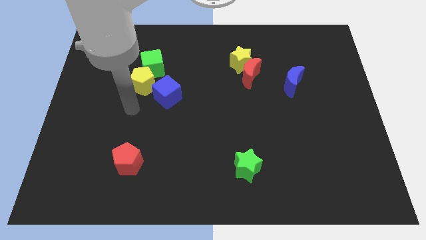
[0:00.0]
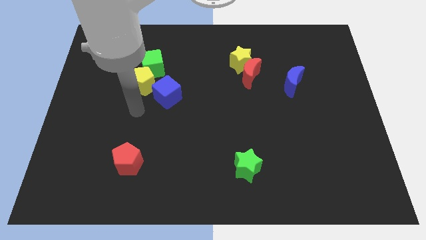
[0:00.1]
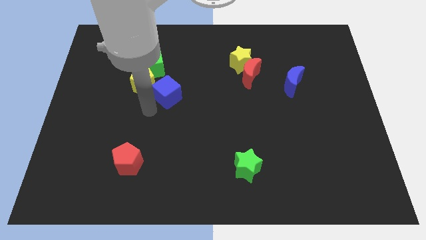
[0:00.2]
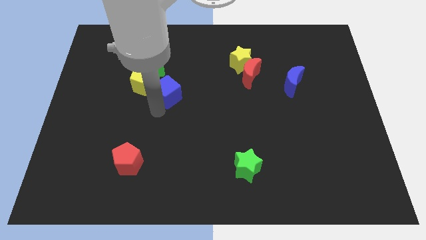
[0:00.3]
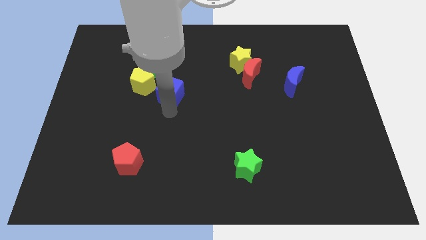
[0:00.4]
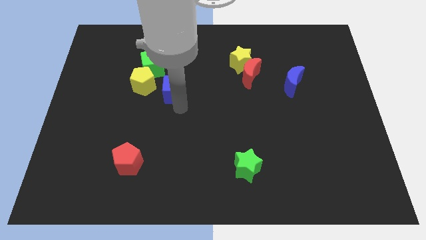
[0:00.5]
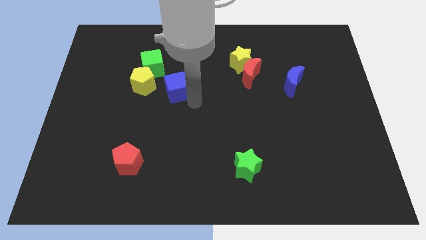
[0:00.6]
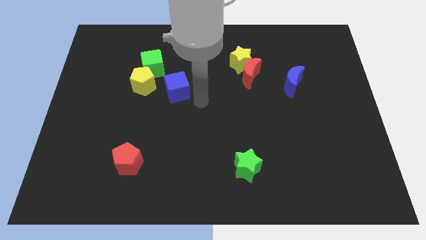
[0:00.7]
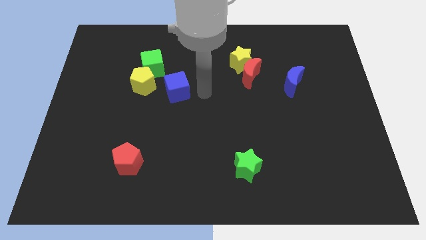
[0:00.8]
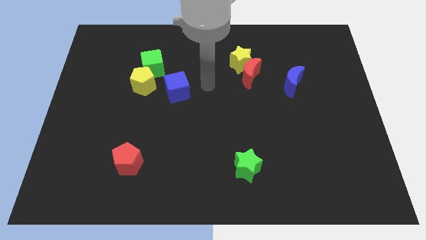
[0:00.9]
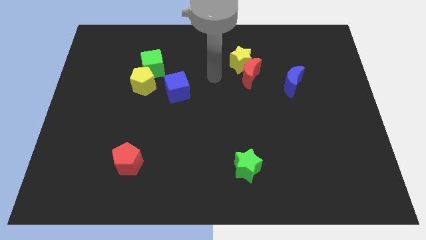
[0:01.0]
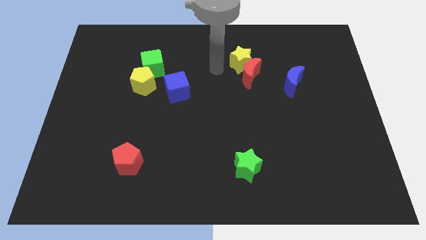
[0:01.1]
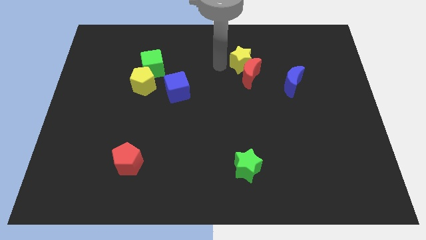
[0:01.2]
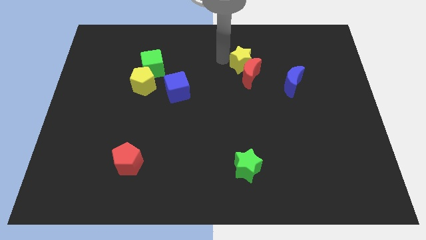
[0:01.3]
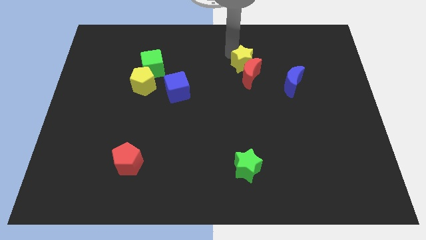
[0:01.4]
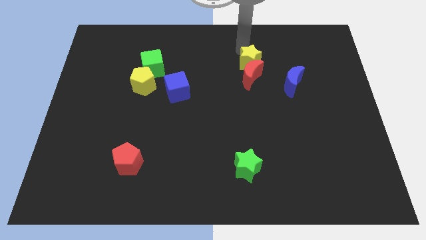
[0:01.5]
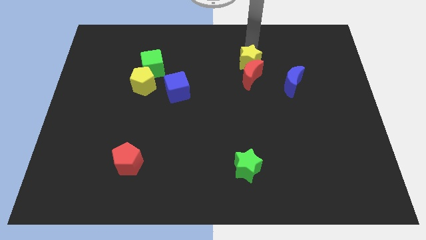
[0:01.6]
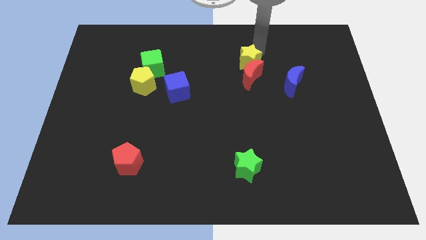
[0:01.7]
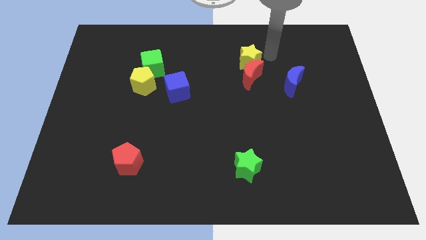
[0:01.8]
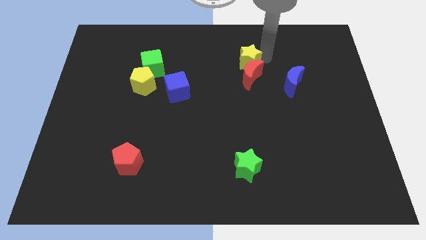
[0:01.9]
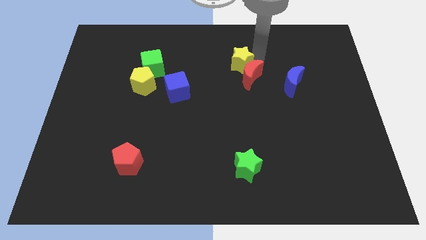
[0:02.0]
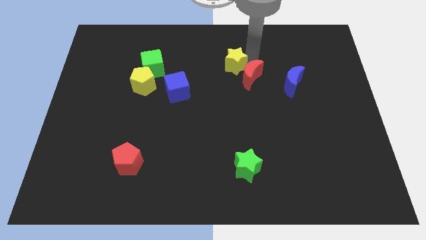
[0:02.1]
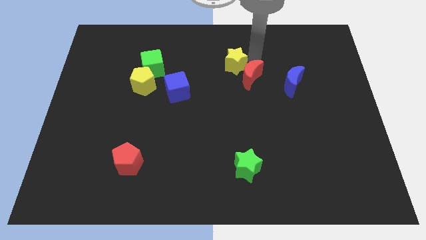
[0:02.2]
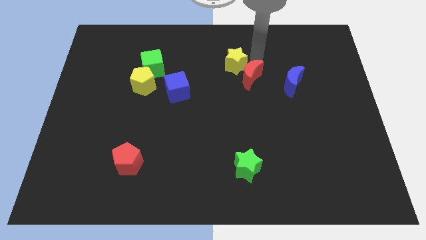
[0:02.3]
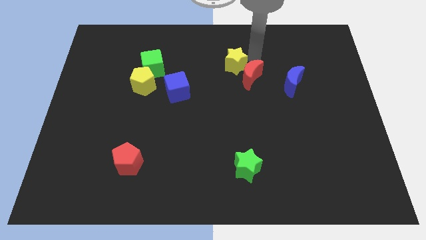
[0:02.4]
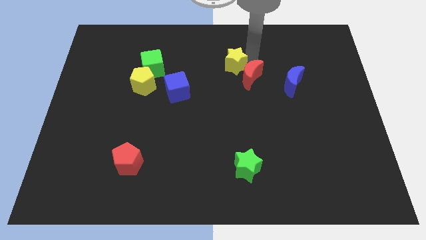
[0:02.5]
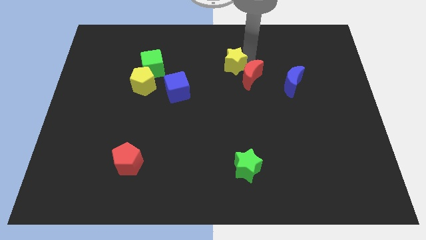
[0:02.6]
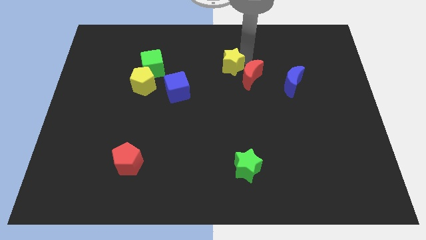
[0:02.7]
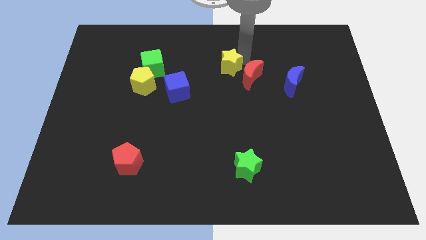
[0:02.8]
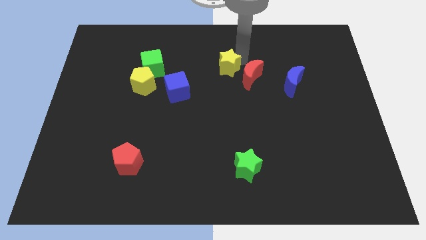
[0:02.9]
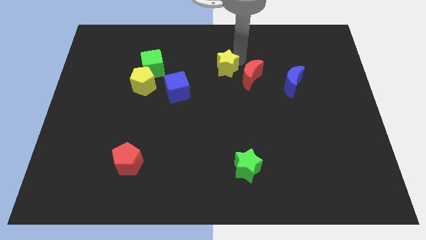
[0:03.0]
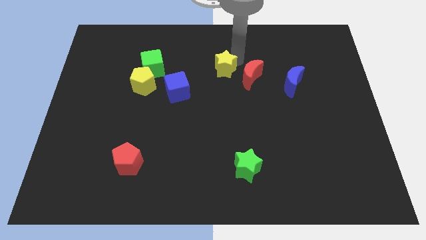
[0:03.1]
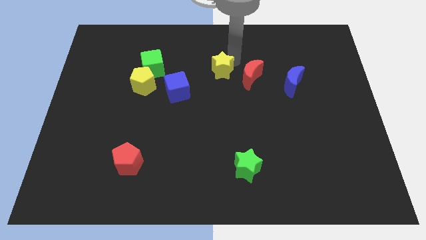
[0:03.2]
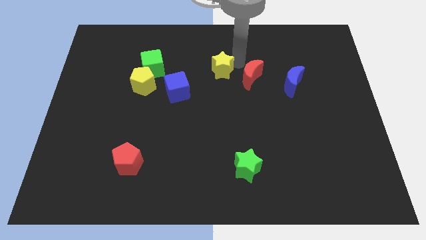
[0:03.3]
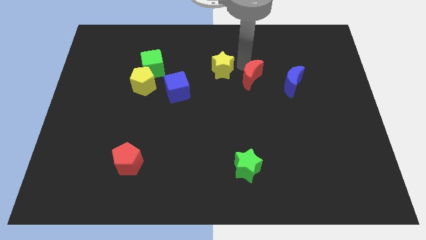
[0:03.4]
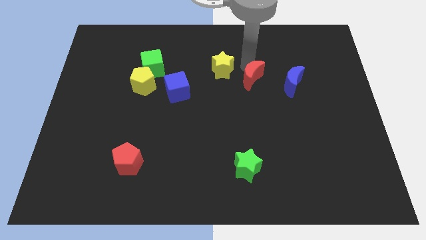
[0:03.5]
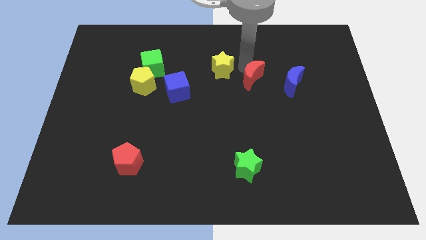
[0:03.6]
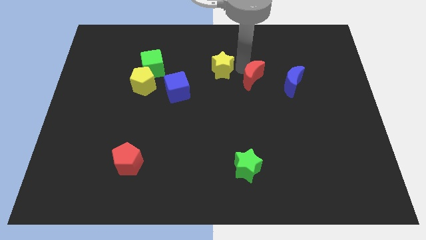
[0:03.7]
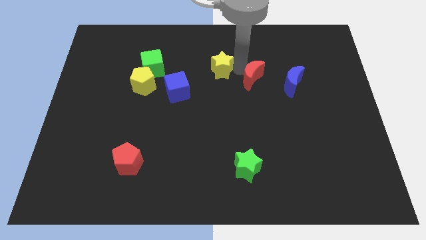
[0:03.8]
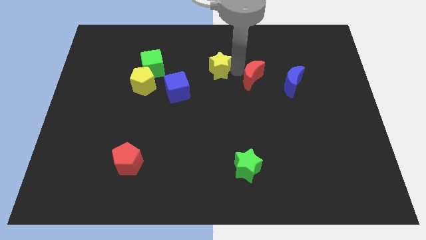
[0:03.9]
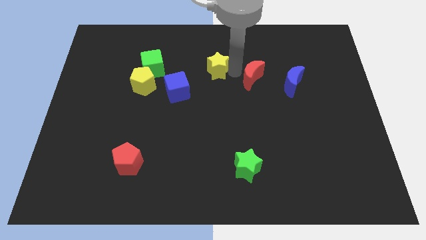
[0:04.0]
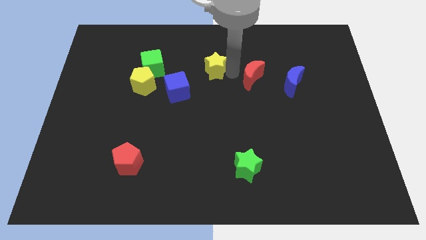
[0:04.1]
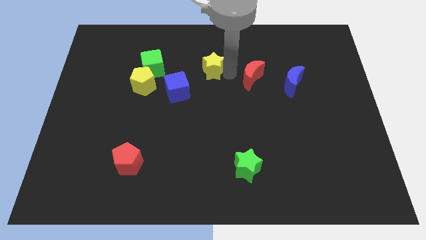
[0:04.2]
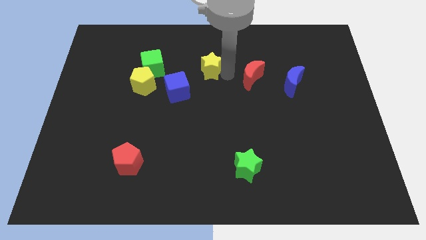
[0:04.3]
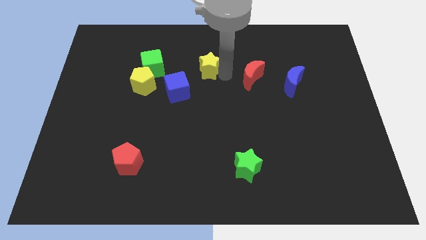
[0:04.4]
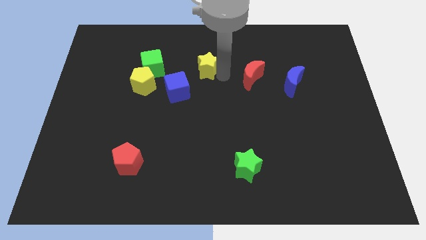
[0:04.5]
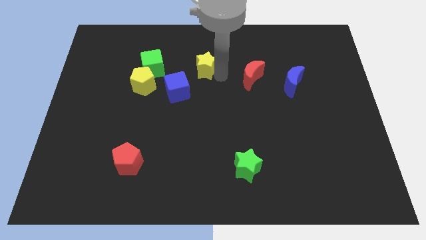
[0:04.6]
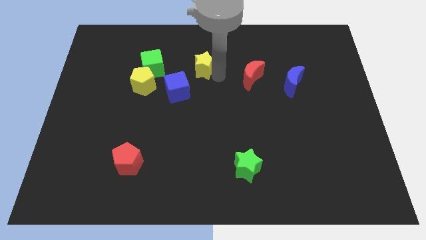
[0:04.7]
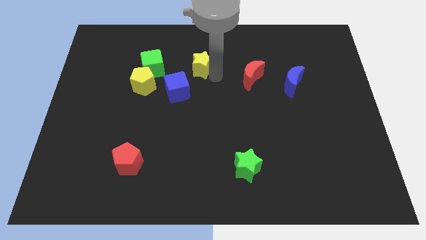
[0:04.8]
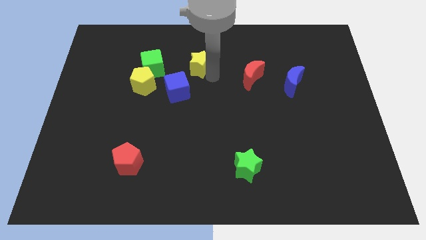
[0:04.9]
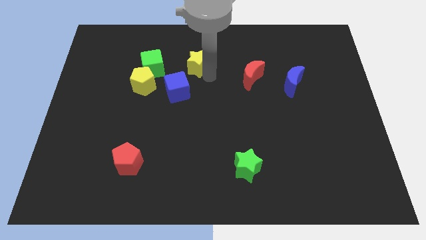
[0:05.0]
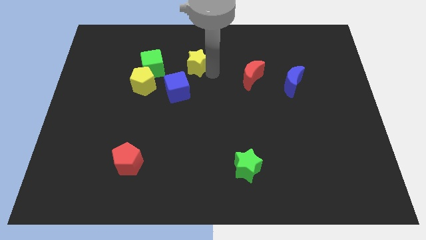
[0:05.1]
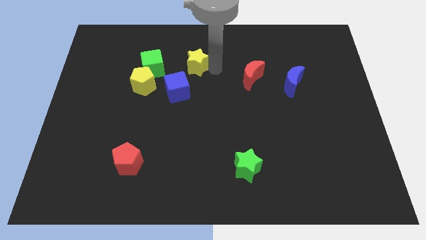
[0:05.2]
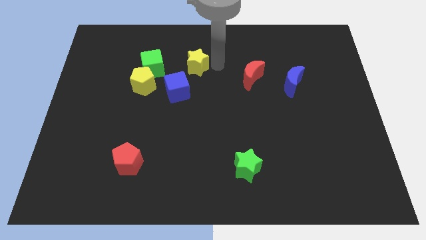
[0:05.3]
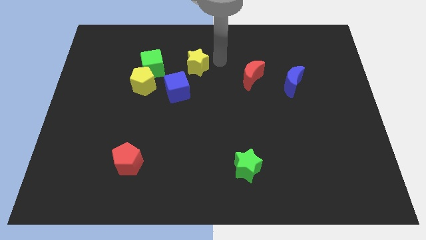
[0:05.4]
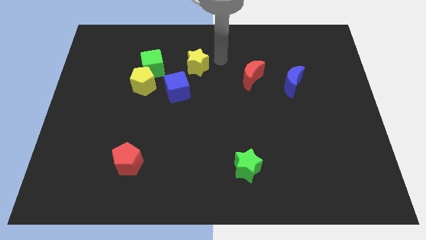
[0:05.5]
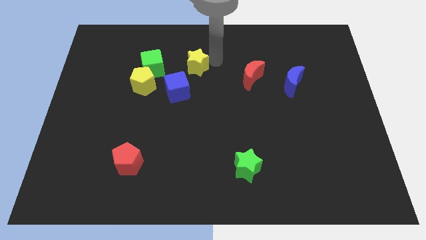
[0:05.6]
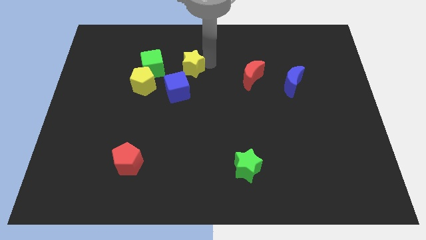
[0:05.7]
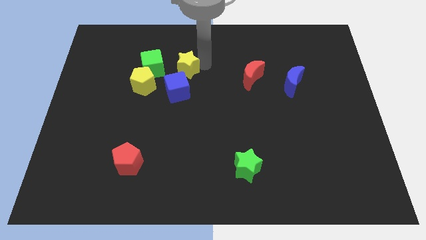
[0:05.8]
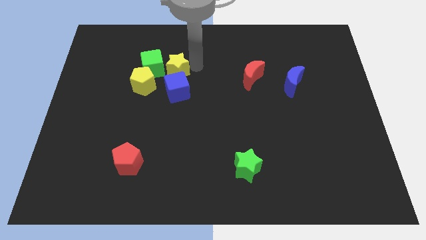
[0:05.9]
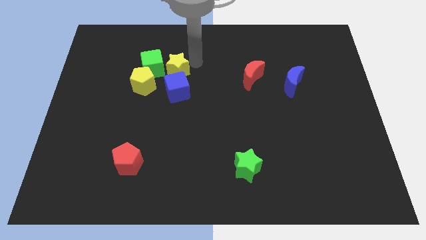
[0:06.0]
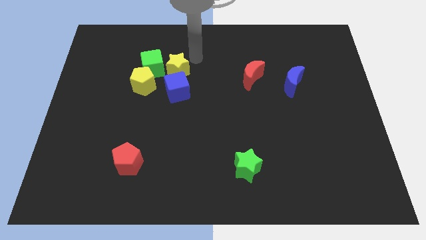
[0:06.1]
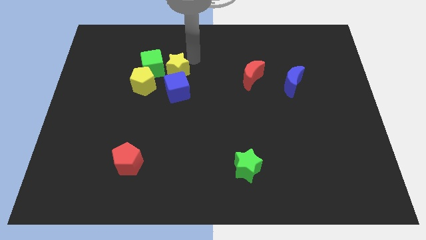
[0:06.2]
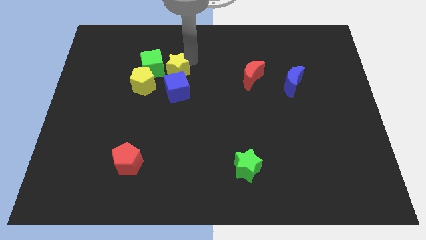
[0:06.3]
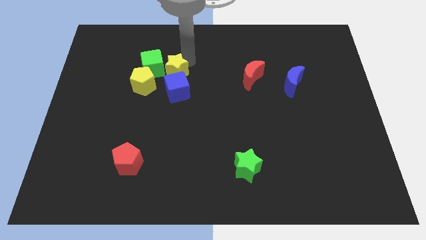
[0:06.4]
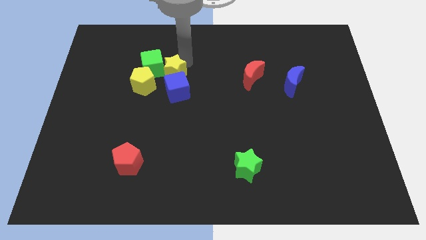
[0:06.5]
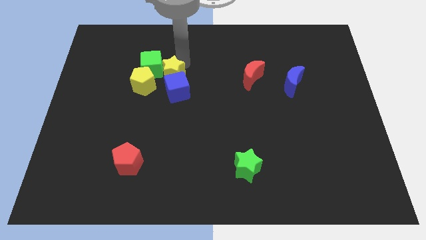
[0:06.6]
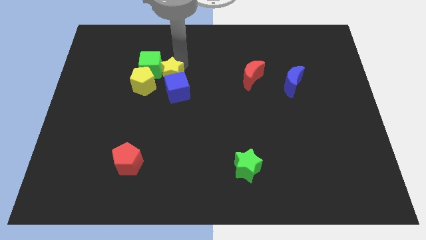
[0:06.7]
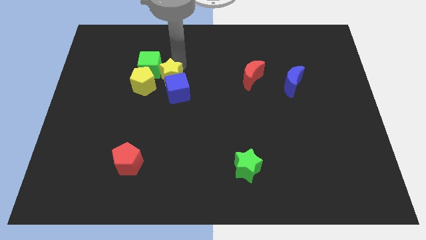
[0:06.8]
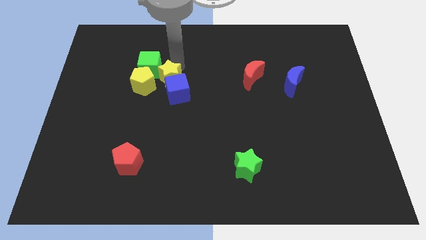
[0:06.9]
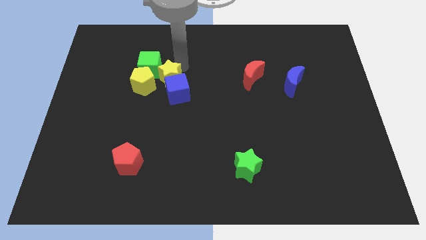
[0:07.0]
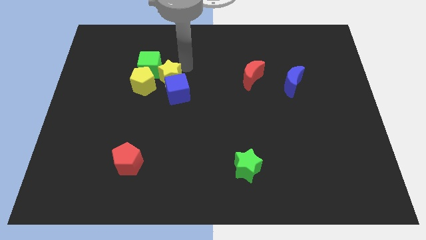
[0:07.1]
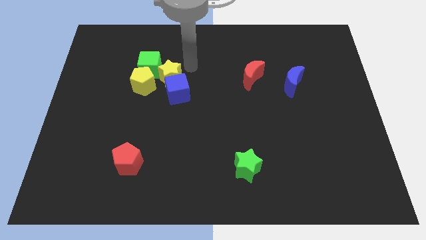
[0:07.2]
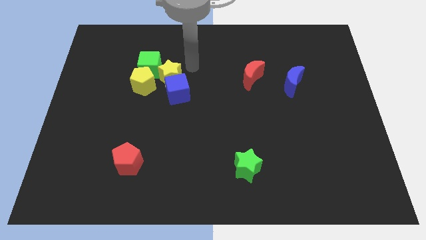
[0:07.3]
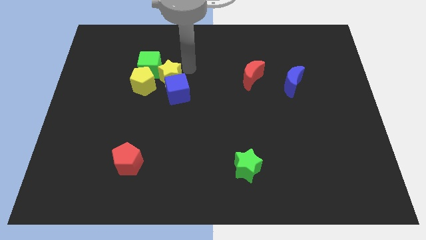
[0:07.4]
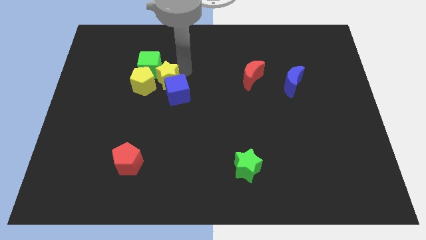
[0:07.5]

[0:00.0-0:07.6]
slide the yellow star close to the yellow pentagon
